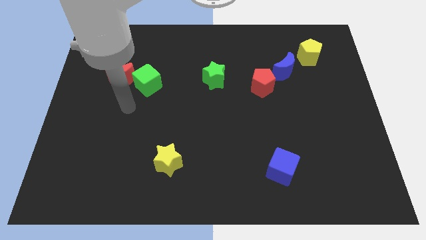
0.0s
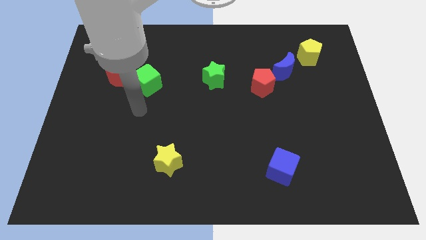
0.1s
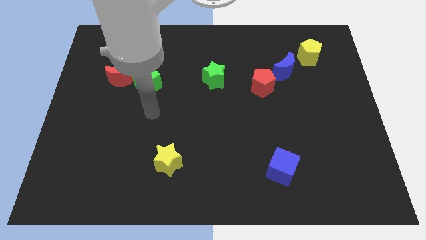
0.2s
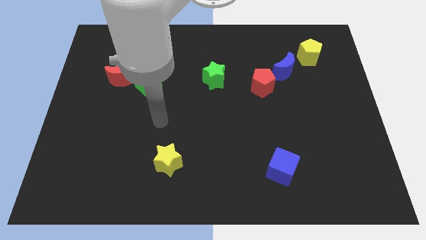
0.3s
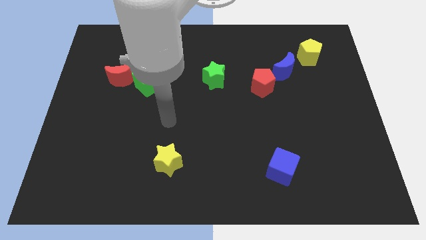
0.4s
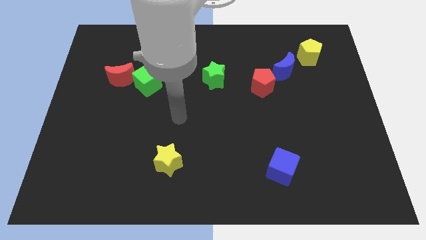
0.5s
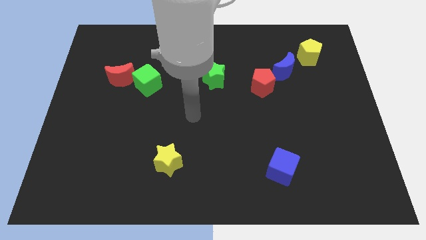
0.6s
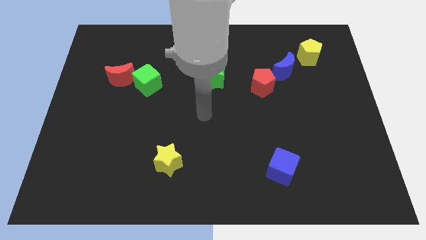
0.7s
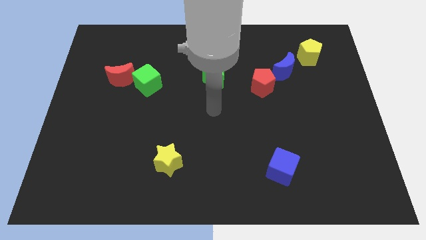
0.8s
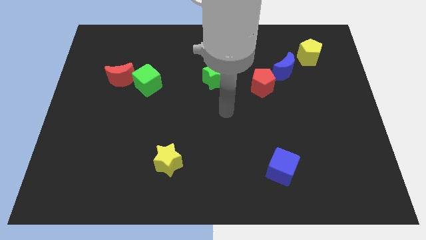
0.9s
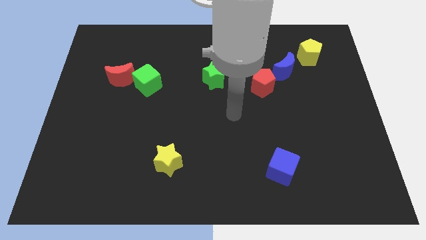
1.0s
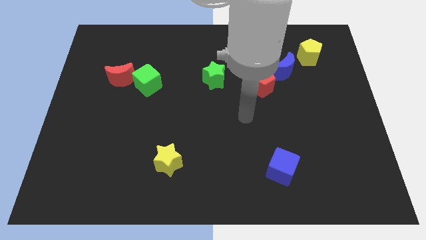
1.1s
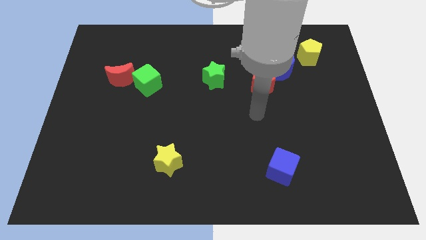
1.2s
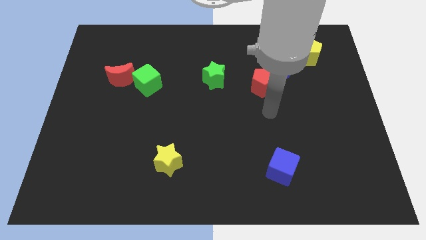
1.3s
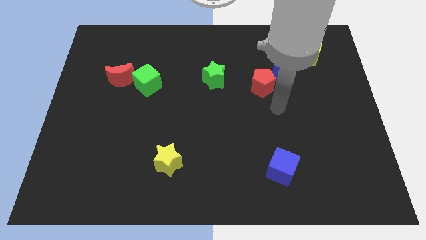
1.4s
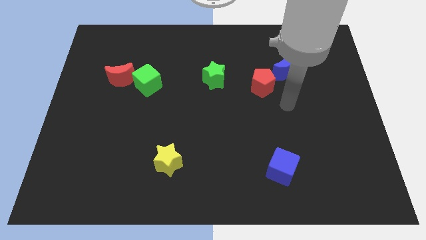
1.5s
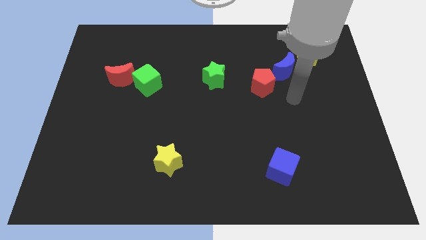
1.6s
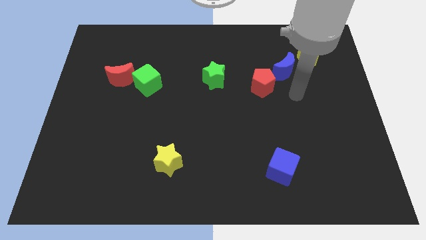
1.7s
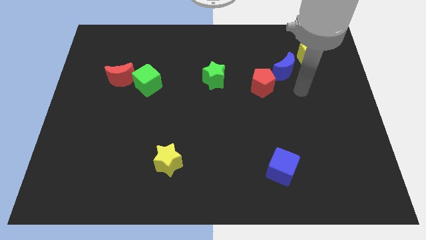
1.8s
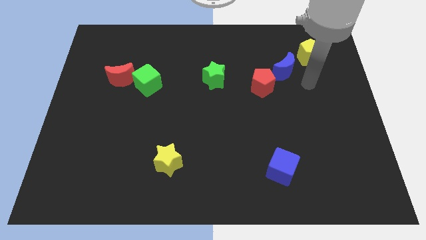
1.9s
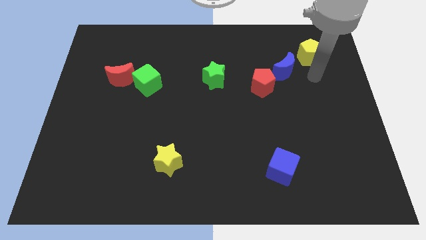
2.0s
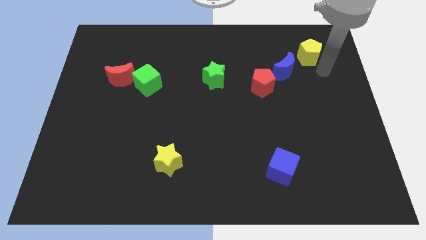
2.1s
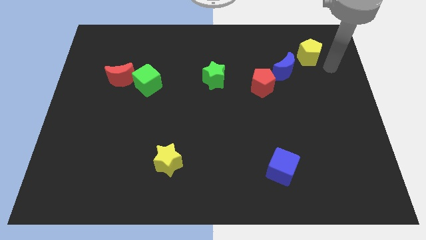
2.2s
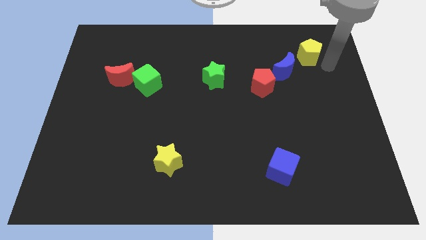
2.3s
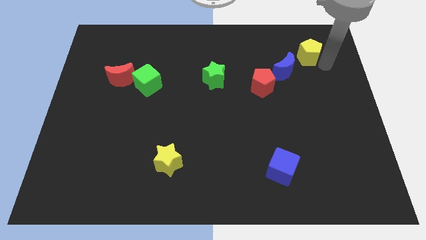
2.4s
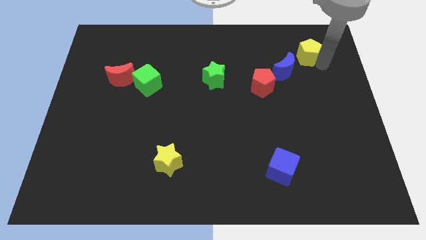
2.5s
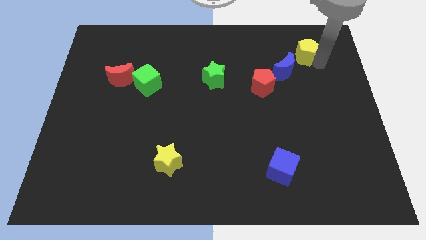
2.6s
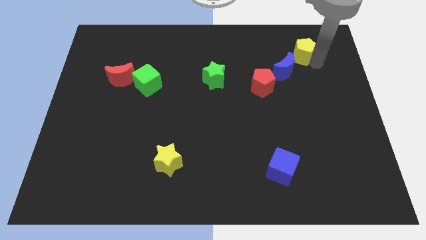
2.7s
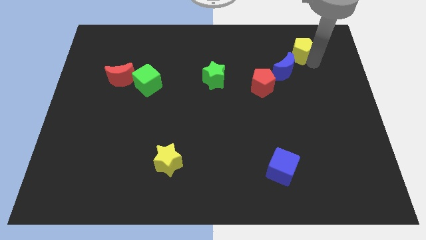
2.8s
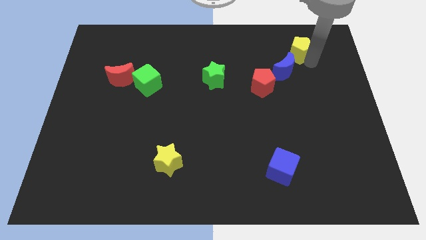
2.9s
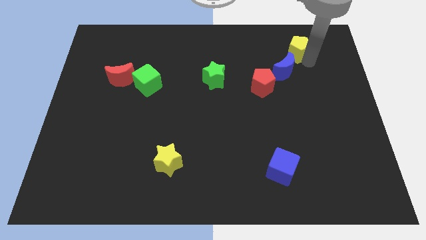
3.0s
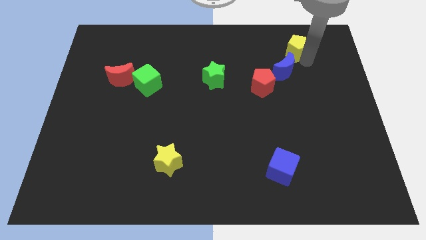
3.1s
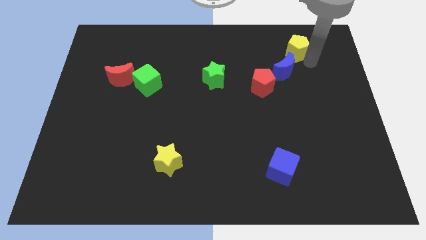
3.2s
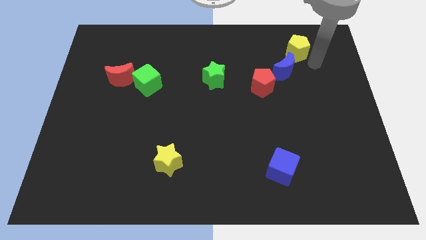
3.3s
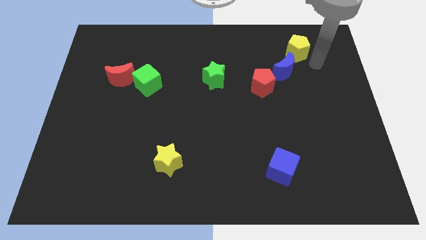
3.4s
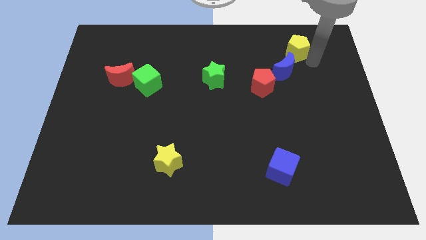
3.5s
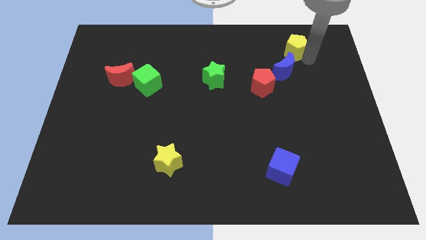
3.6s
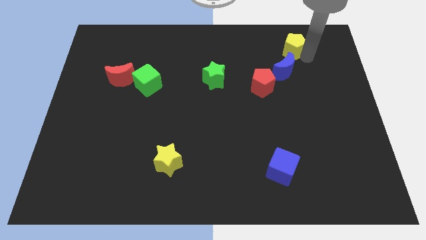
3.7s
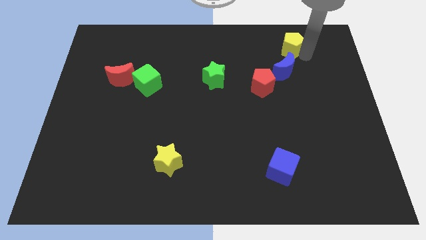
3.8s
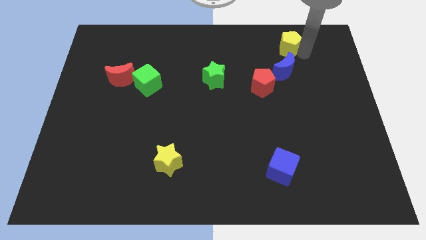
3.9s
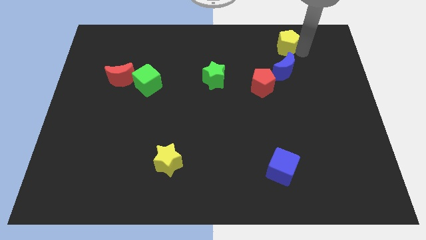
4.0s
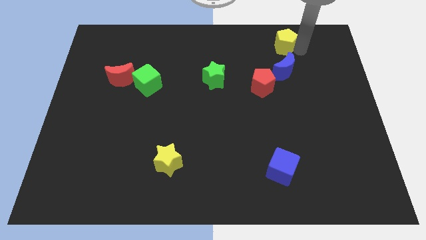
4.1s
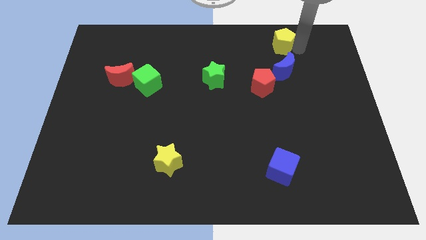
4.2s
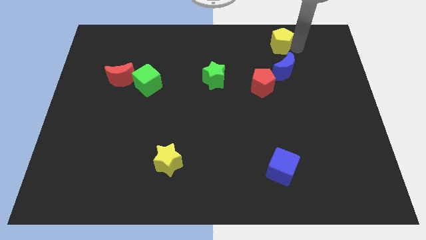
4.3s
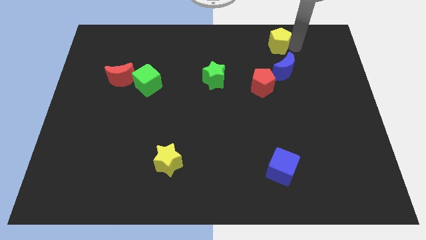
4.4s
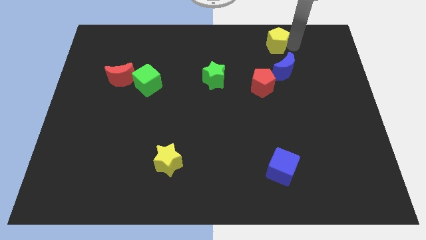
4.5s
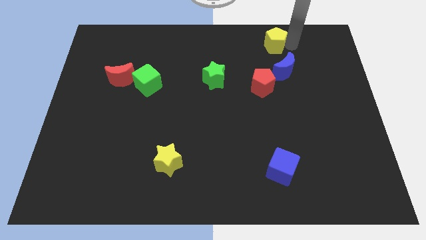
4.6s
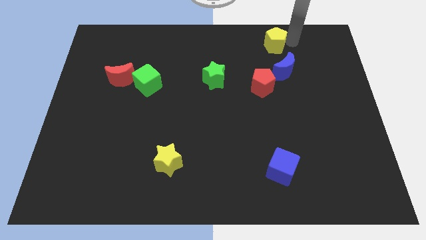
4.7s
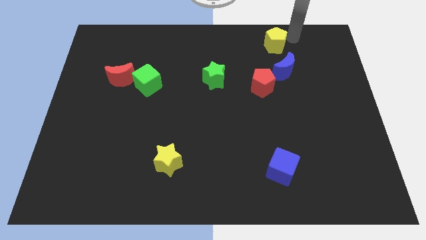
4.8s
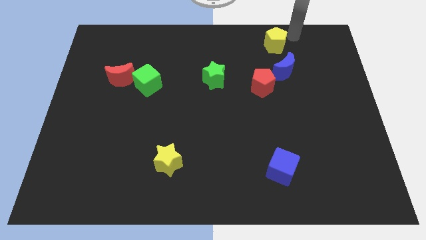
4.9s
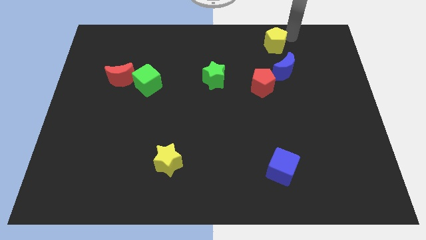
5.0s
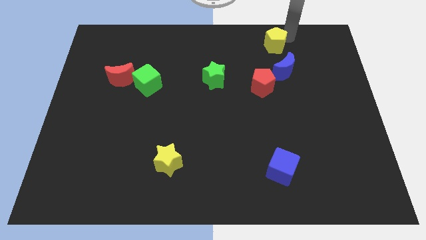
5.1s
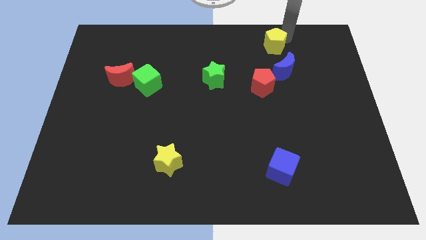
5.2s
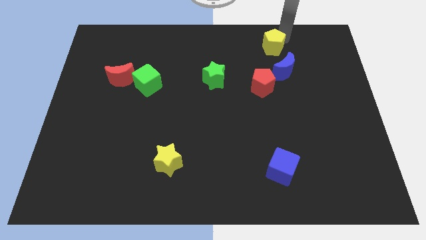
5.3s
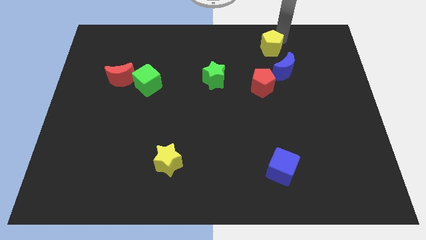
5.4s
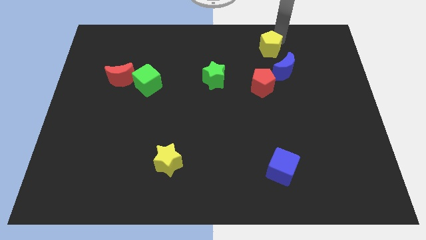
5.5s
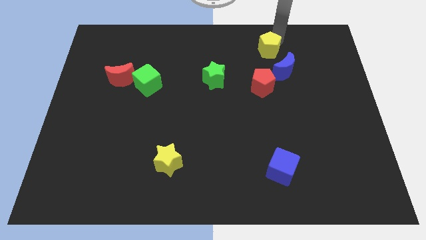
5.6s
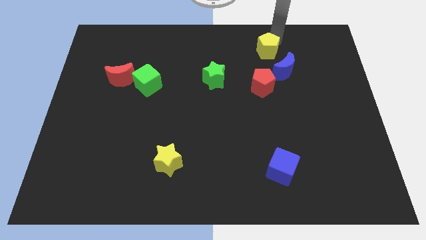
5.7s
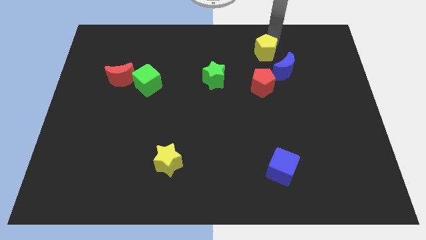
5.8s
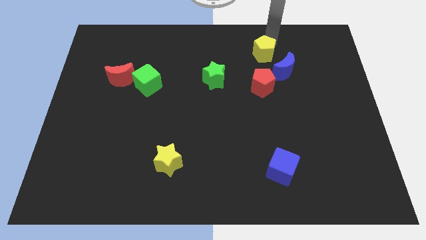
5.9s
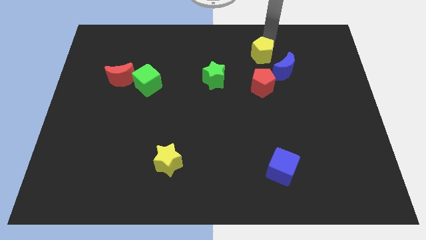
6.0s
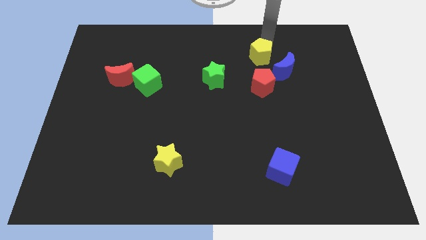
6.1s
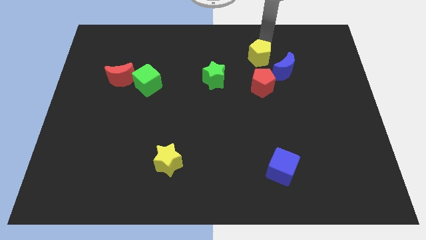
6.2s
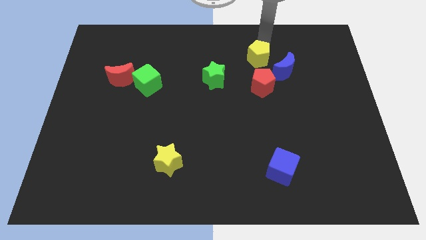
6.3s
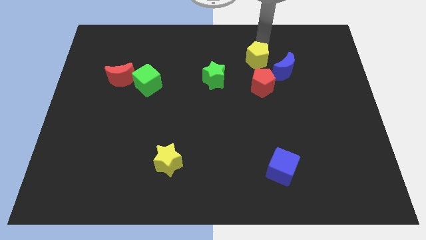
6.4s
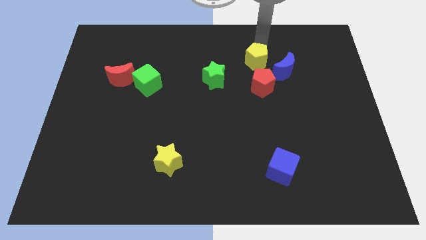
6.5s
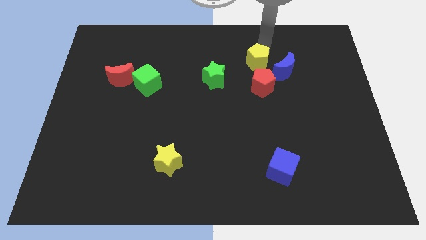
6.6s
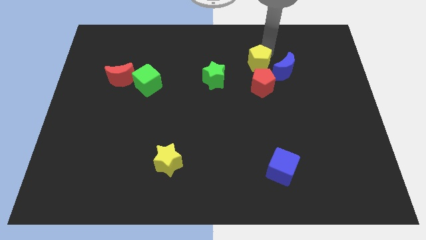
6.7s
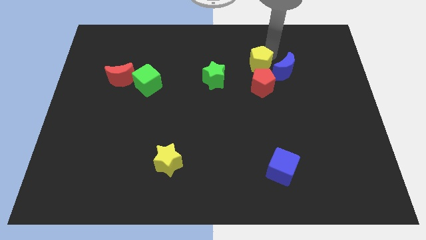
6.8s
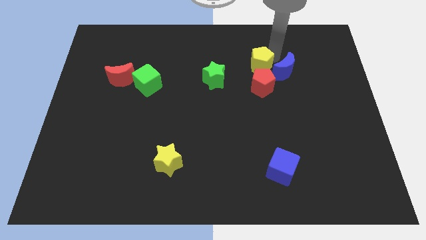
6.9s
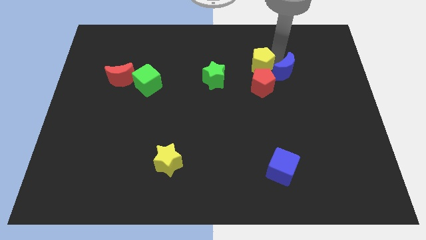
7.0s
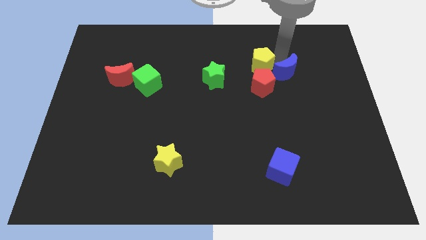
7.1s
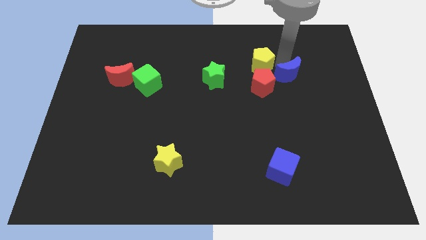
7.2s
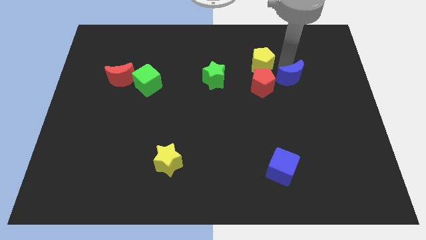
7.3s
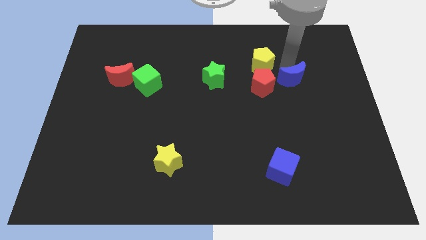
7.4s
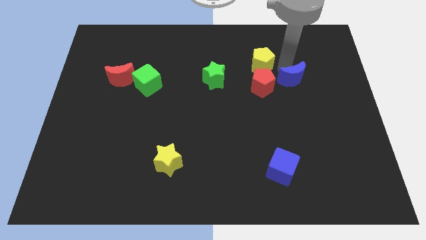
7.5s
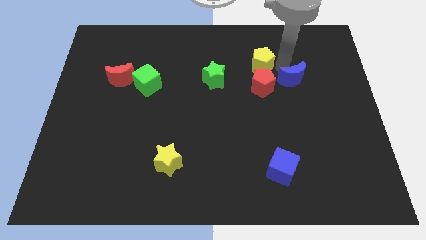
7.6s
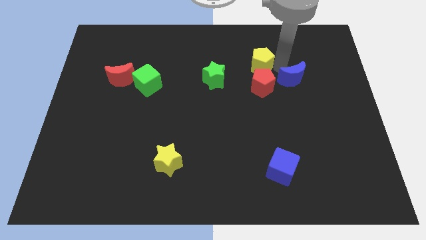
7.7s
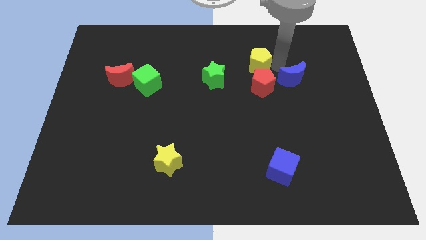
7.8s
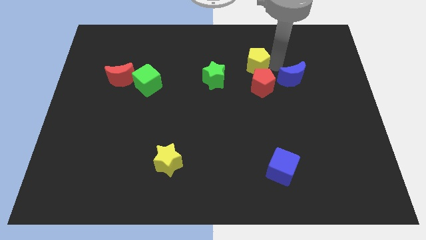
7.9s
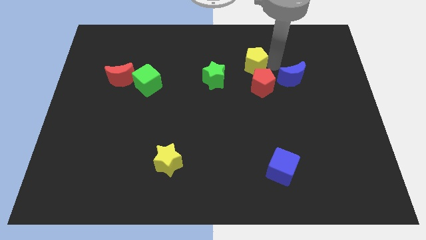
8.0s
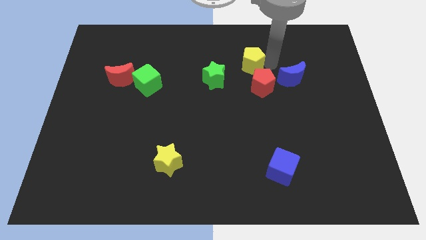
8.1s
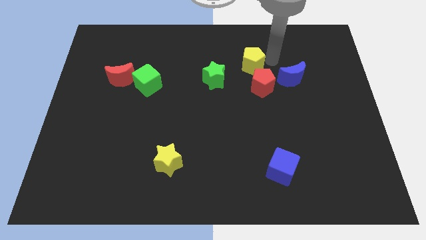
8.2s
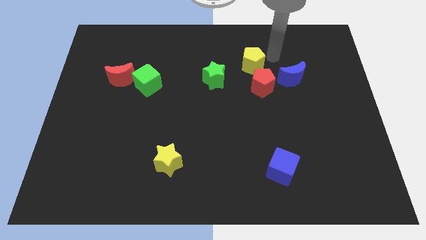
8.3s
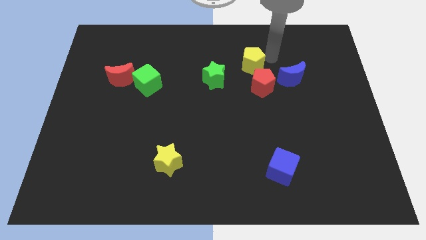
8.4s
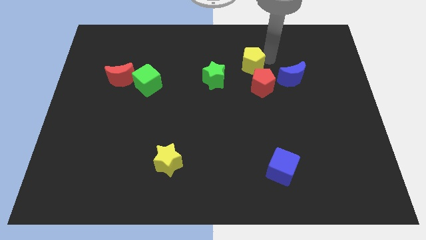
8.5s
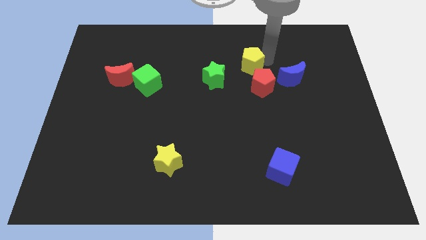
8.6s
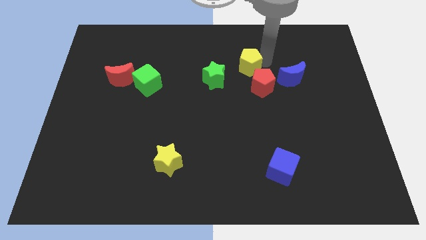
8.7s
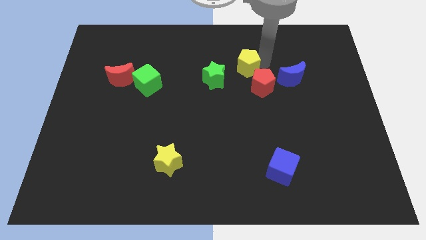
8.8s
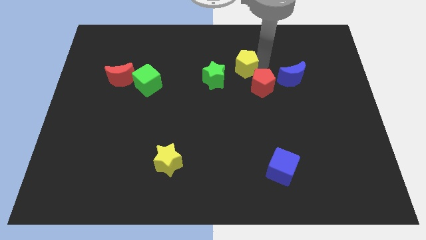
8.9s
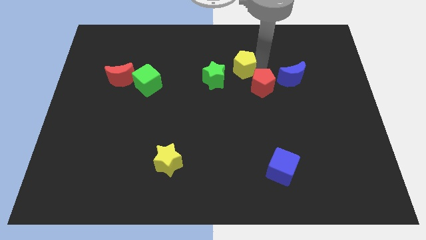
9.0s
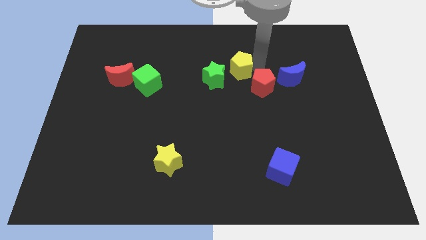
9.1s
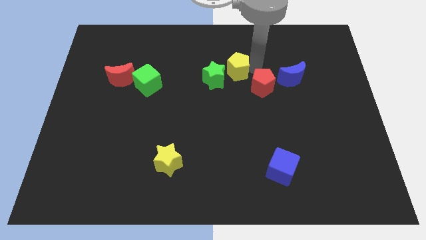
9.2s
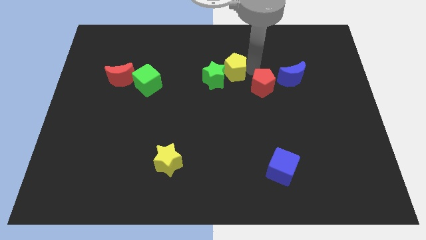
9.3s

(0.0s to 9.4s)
push the yellow pentagon to the green star
